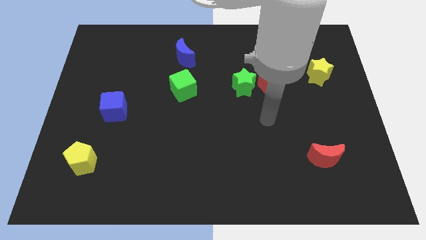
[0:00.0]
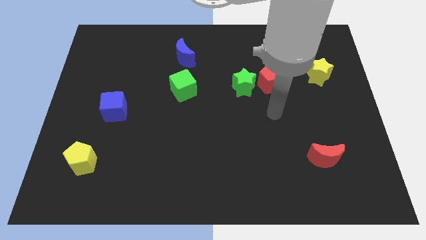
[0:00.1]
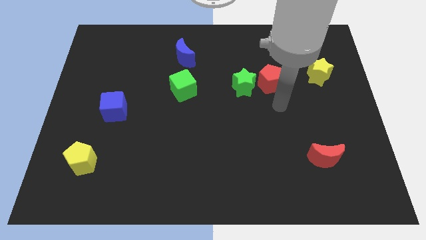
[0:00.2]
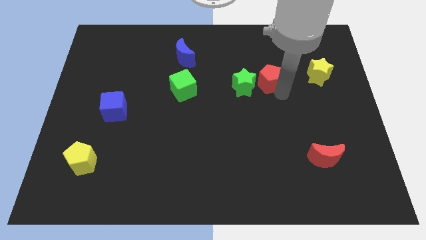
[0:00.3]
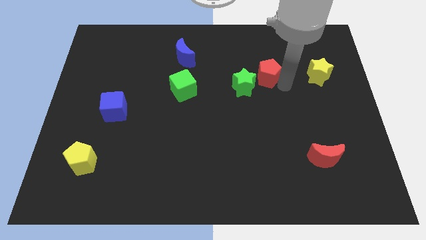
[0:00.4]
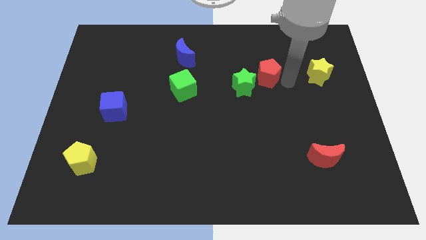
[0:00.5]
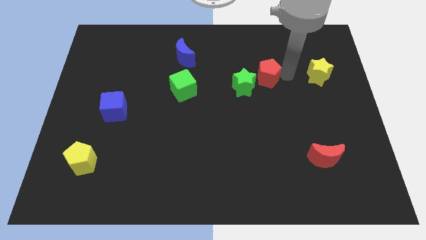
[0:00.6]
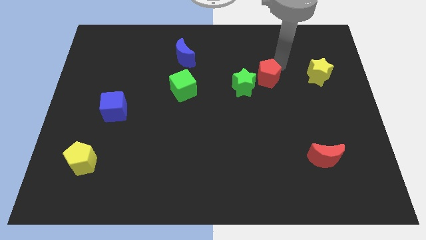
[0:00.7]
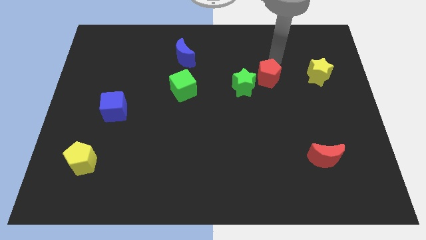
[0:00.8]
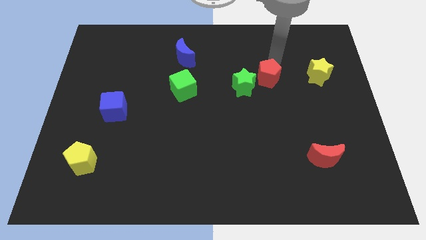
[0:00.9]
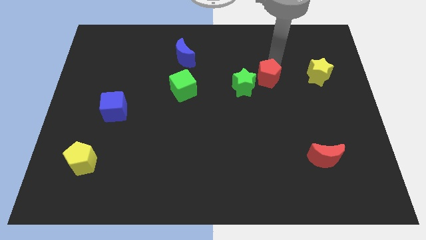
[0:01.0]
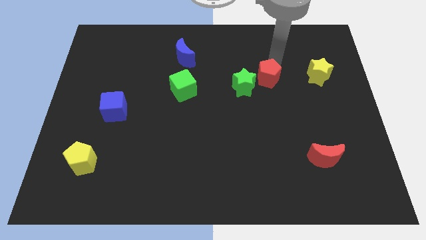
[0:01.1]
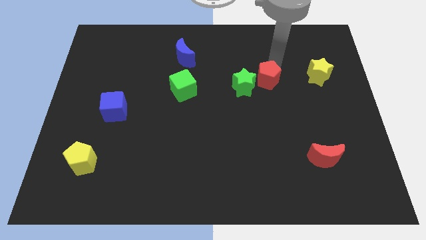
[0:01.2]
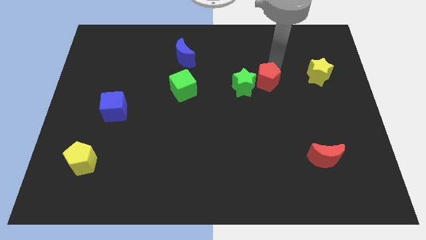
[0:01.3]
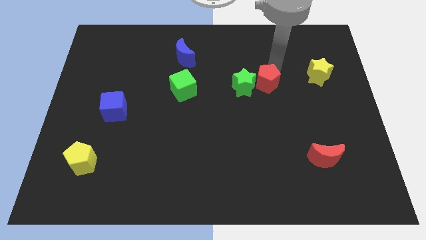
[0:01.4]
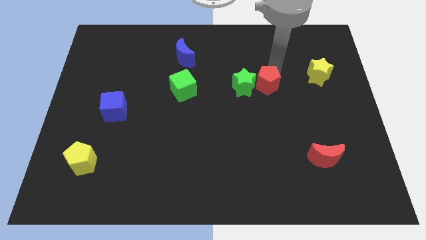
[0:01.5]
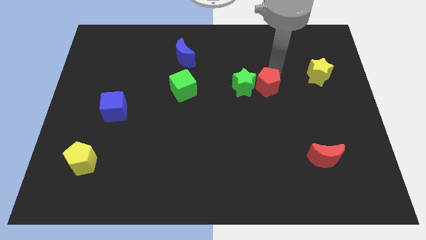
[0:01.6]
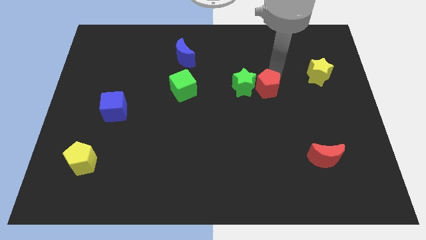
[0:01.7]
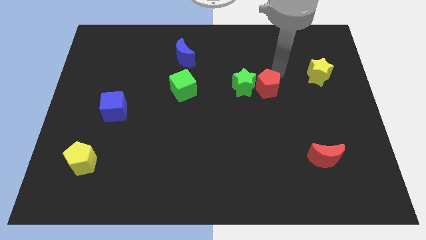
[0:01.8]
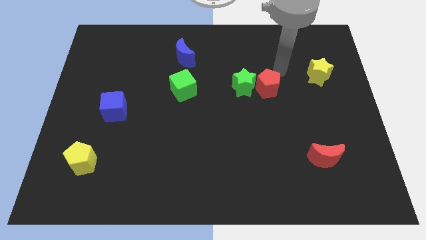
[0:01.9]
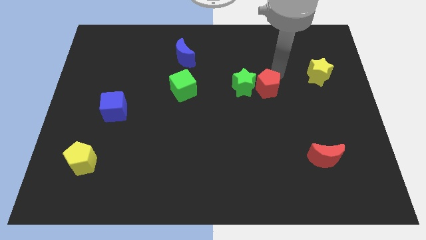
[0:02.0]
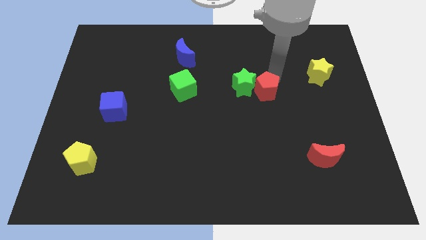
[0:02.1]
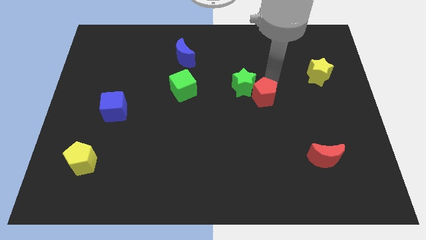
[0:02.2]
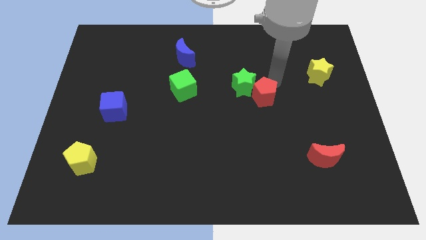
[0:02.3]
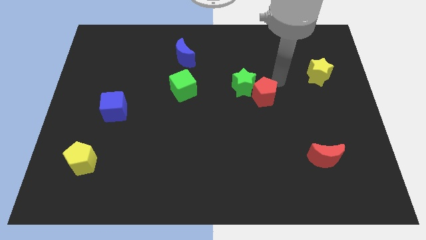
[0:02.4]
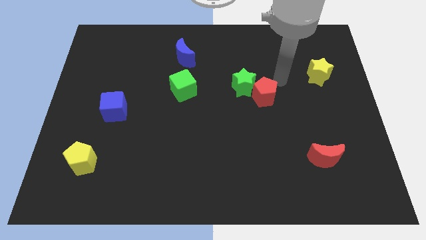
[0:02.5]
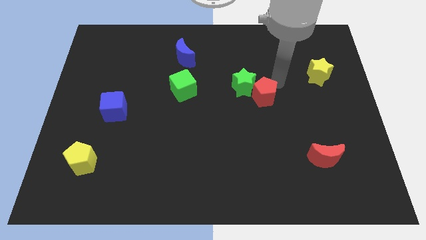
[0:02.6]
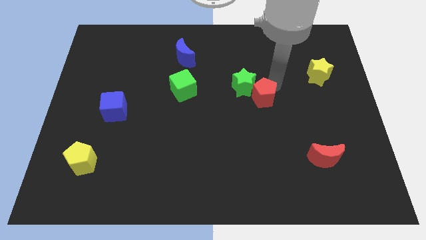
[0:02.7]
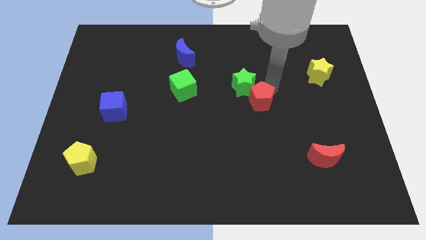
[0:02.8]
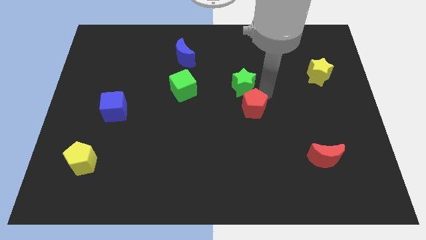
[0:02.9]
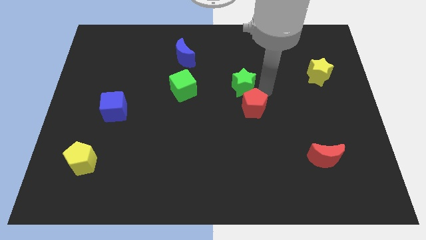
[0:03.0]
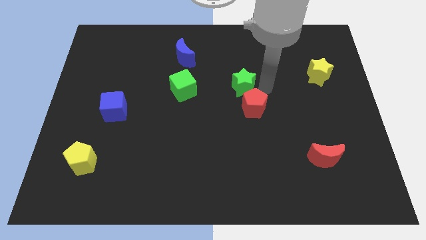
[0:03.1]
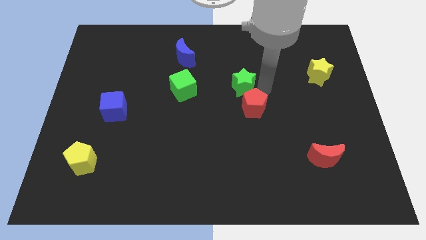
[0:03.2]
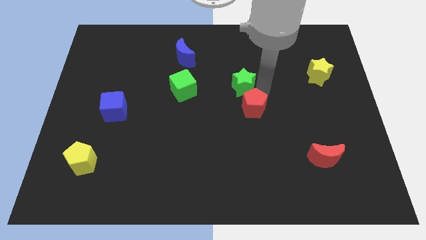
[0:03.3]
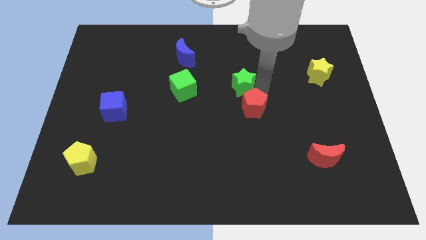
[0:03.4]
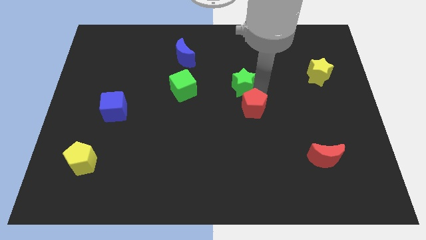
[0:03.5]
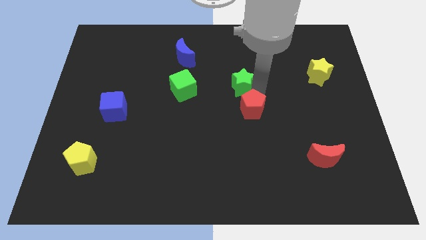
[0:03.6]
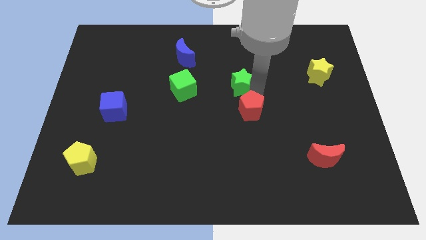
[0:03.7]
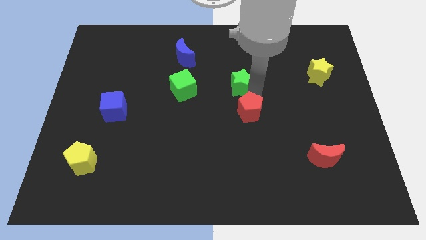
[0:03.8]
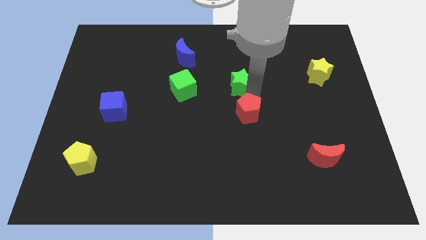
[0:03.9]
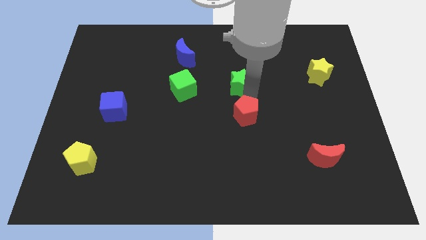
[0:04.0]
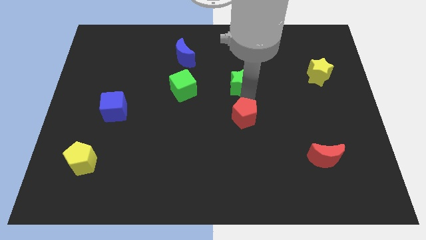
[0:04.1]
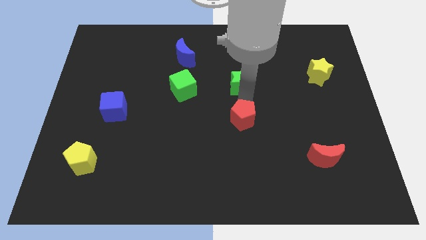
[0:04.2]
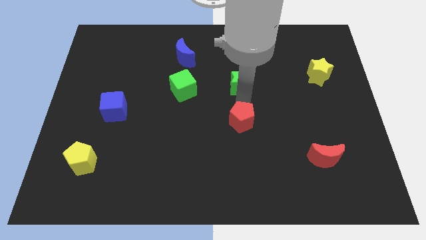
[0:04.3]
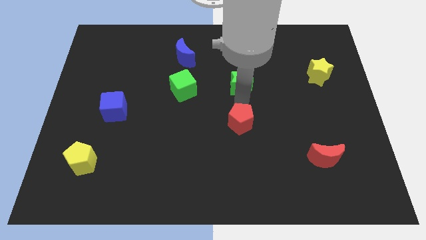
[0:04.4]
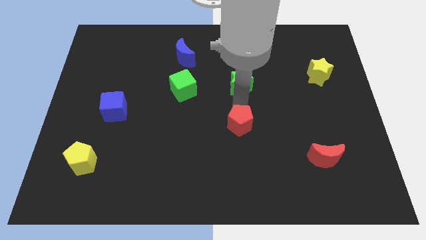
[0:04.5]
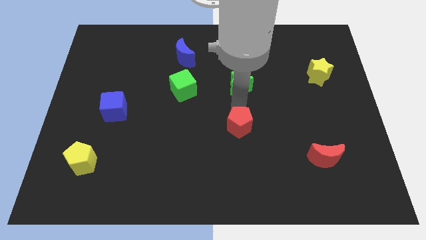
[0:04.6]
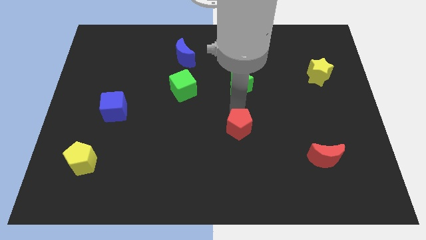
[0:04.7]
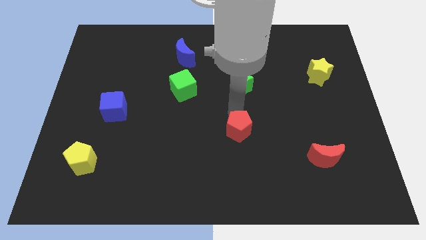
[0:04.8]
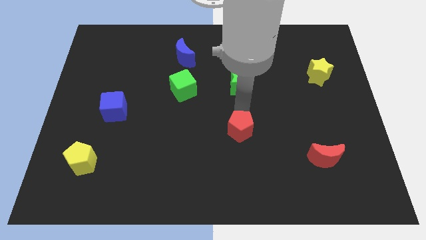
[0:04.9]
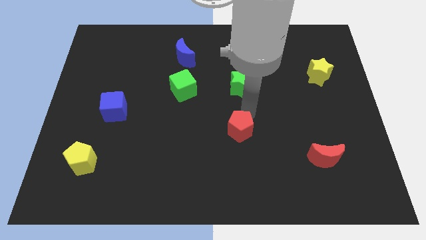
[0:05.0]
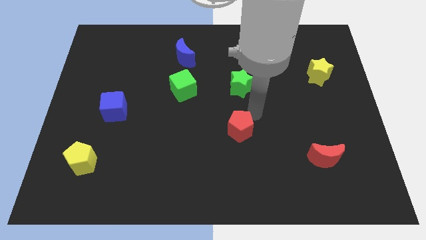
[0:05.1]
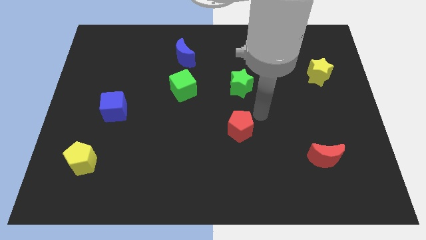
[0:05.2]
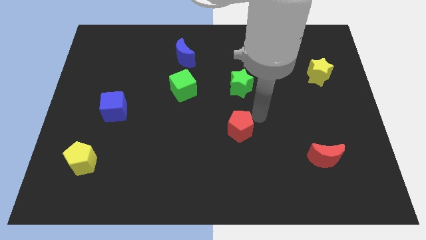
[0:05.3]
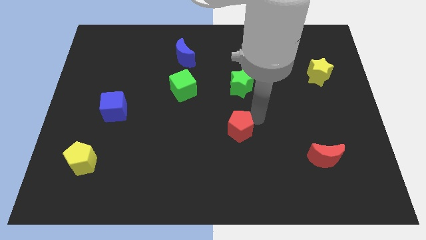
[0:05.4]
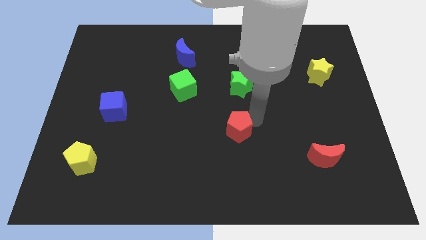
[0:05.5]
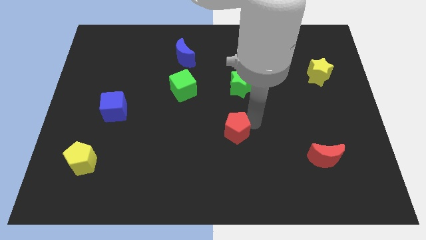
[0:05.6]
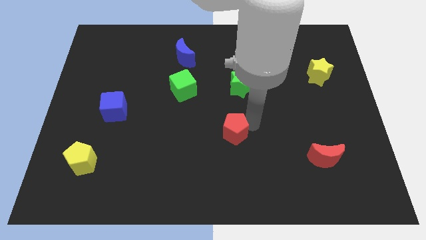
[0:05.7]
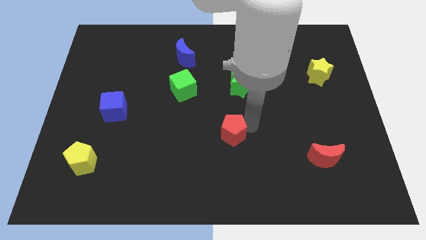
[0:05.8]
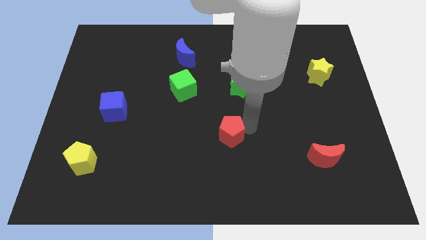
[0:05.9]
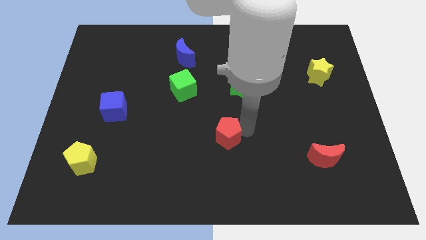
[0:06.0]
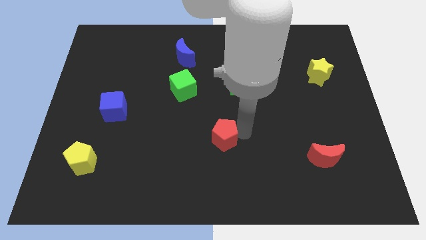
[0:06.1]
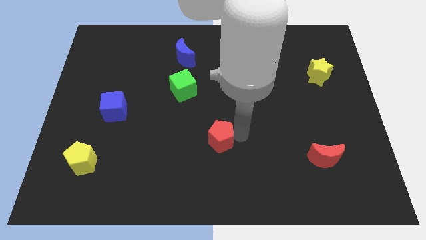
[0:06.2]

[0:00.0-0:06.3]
push the red pentagon downwards and then to the left

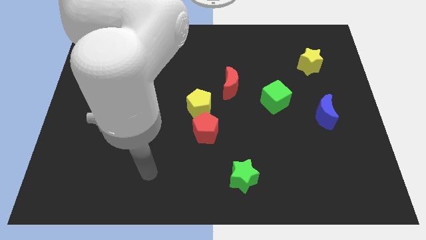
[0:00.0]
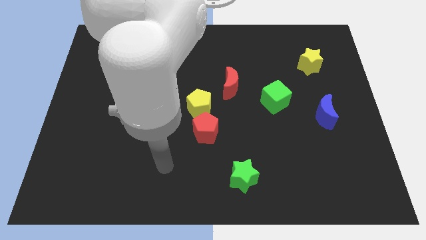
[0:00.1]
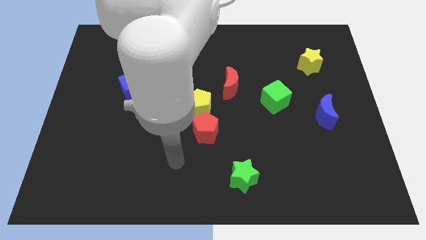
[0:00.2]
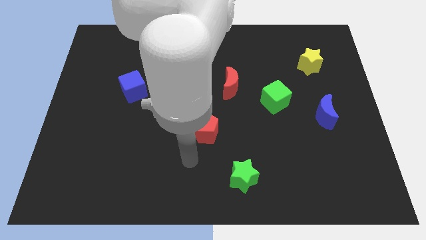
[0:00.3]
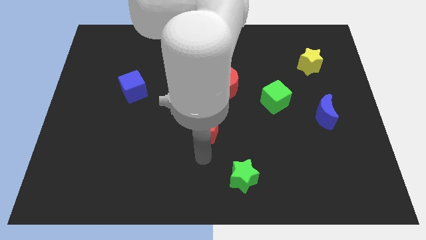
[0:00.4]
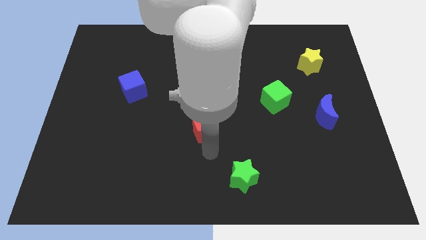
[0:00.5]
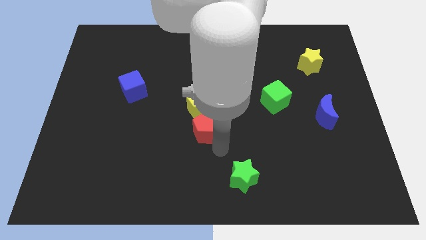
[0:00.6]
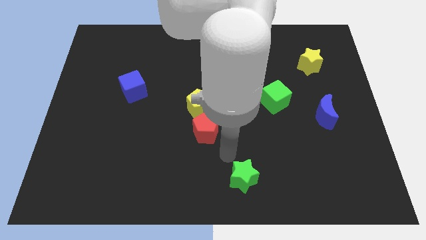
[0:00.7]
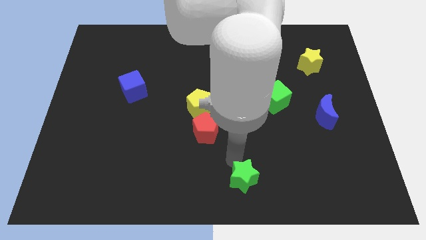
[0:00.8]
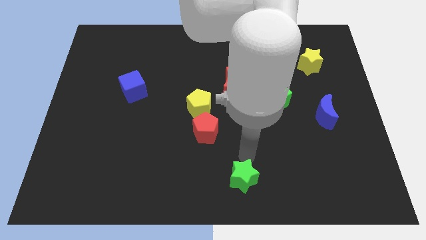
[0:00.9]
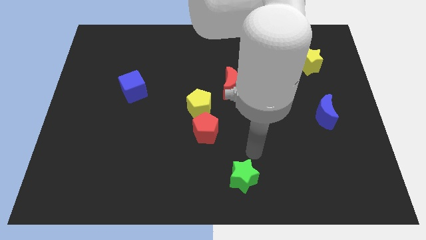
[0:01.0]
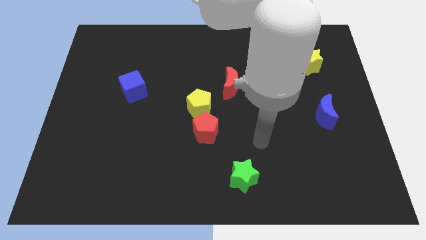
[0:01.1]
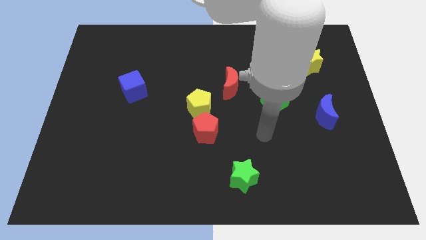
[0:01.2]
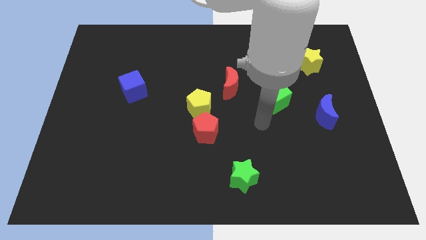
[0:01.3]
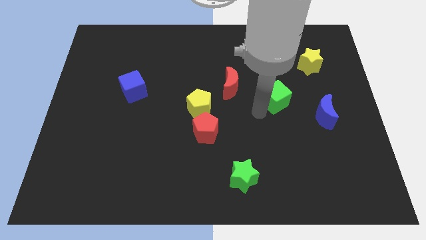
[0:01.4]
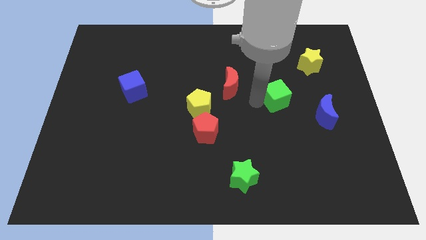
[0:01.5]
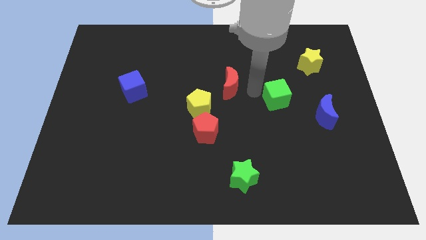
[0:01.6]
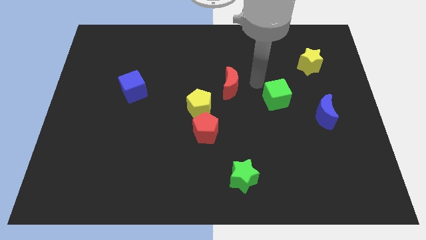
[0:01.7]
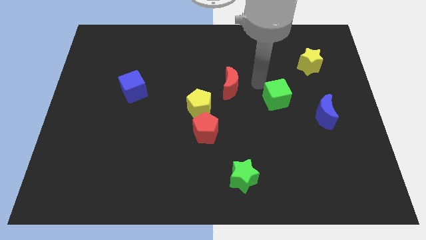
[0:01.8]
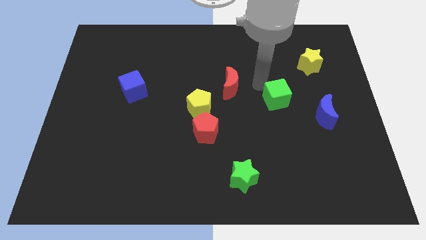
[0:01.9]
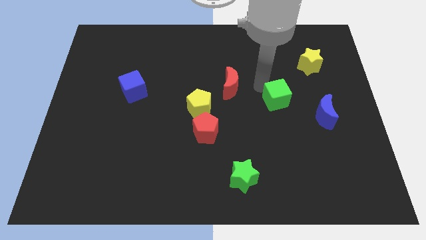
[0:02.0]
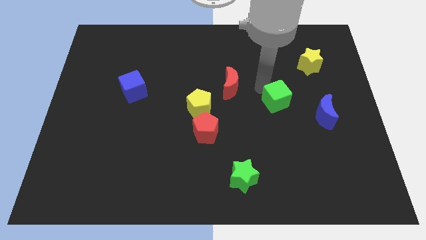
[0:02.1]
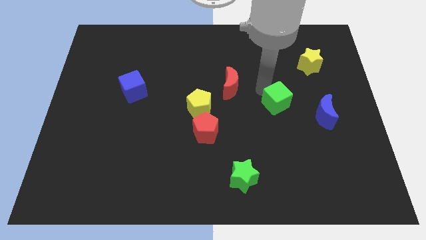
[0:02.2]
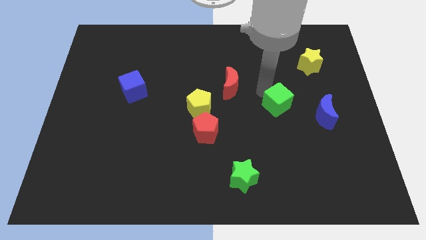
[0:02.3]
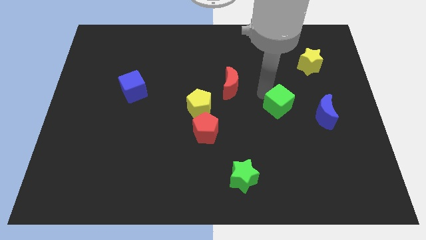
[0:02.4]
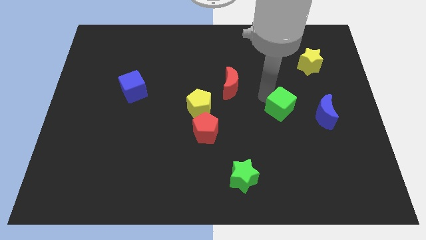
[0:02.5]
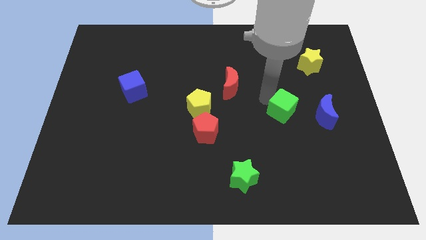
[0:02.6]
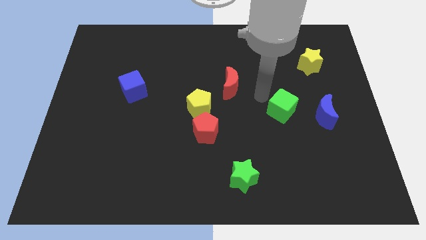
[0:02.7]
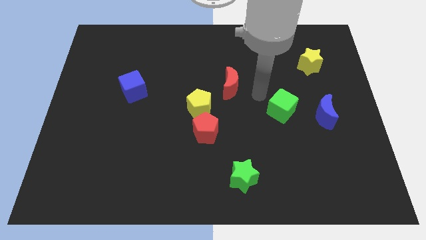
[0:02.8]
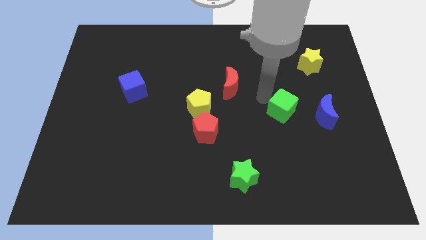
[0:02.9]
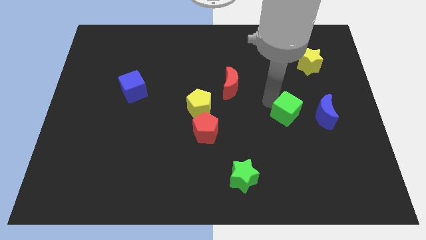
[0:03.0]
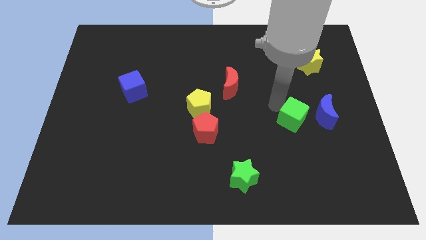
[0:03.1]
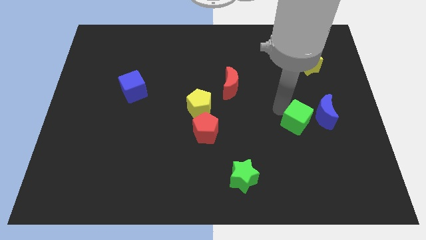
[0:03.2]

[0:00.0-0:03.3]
move the green cube a little bit down and to the right
